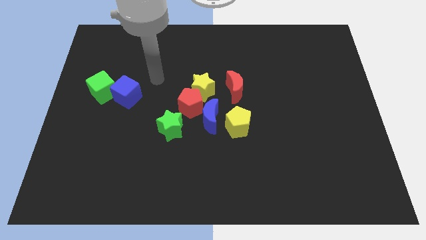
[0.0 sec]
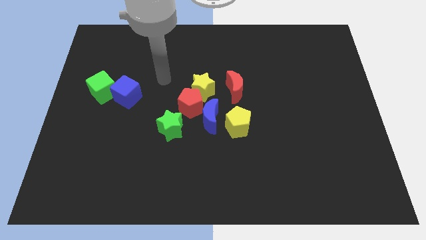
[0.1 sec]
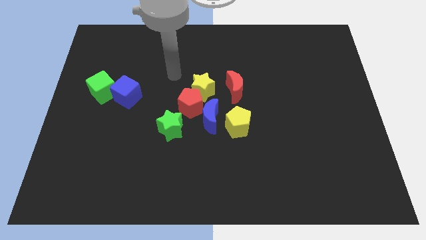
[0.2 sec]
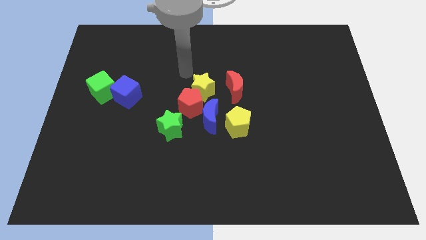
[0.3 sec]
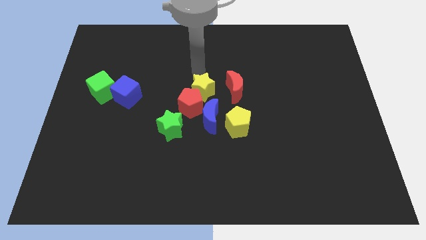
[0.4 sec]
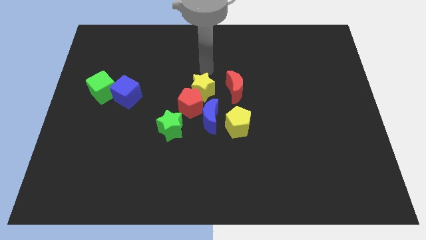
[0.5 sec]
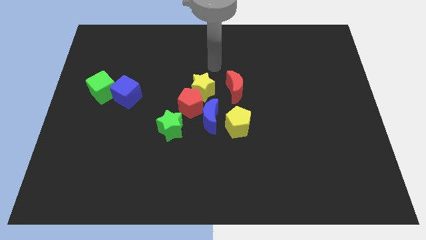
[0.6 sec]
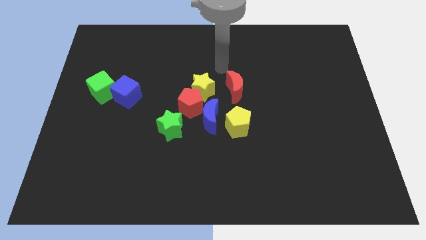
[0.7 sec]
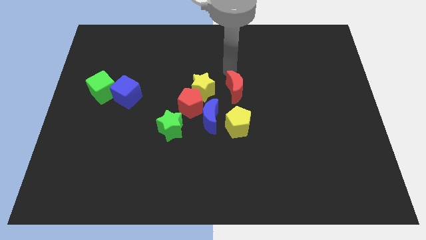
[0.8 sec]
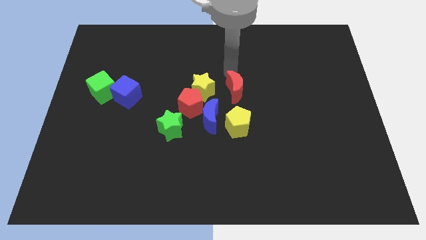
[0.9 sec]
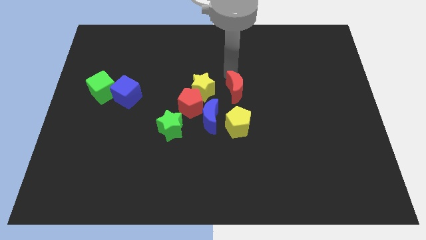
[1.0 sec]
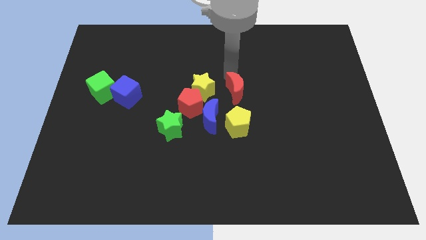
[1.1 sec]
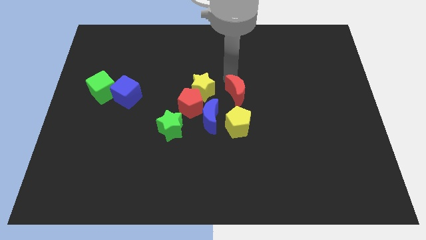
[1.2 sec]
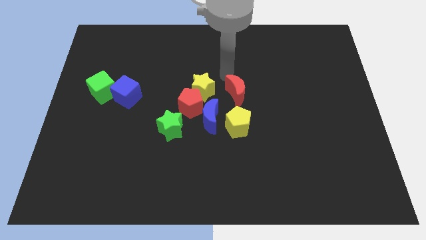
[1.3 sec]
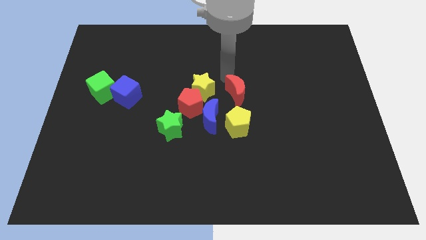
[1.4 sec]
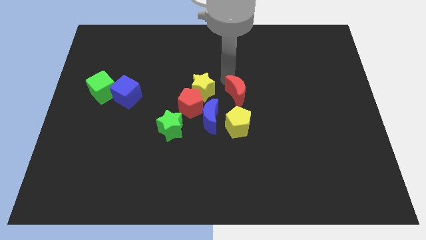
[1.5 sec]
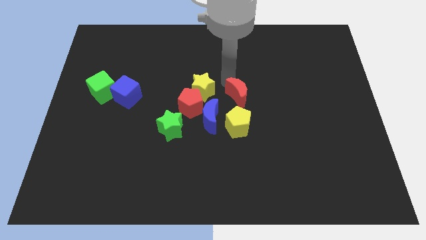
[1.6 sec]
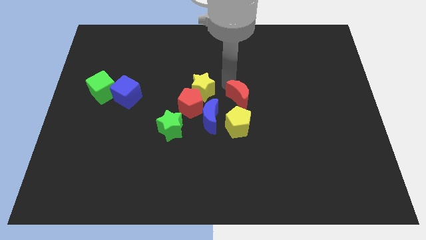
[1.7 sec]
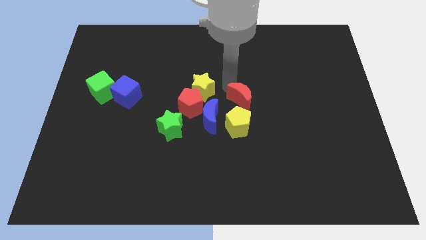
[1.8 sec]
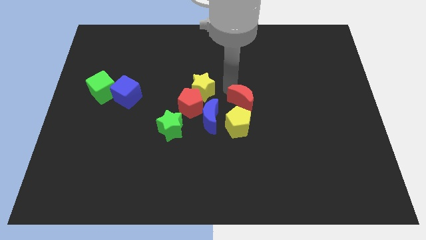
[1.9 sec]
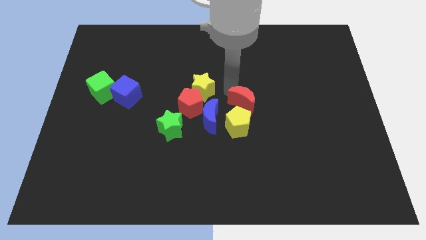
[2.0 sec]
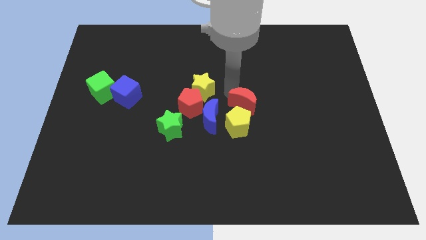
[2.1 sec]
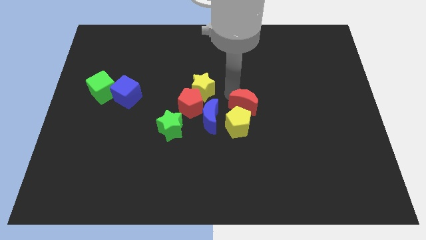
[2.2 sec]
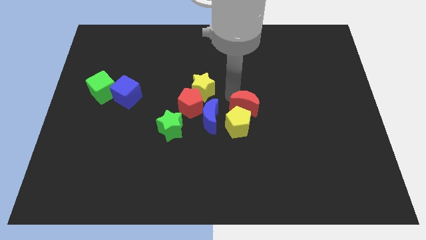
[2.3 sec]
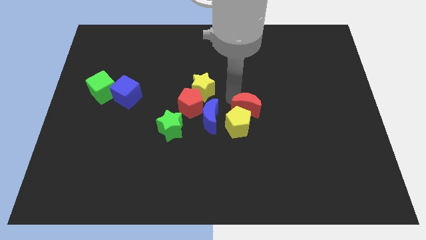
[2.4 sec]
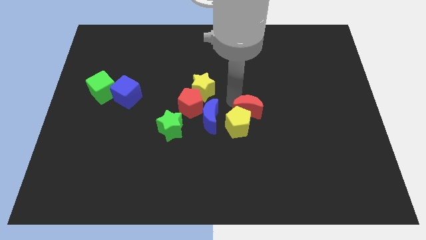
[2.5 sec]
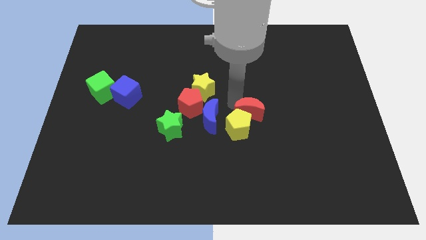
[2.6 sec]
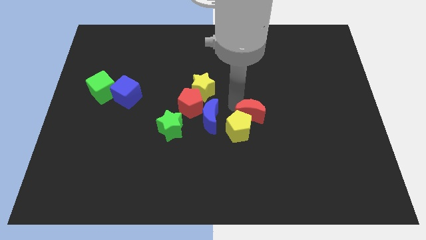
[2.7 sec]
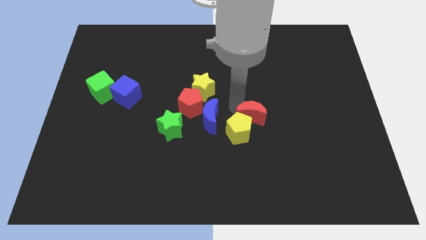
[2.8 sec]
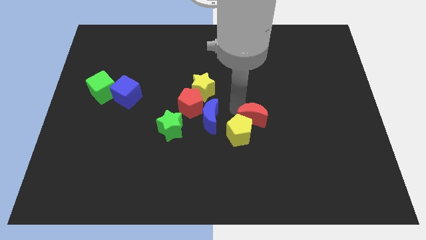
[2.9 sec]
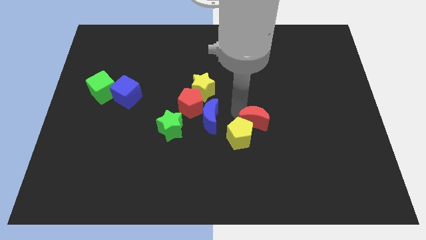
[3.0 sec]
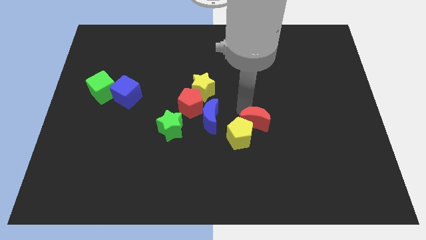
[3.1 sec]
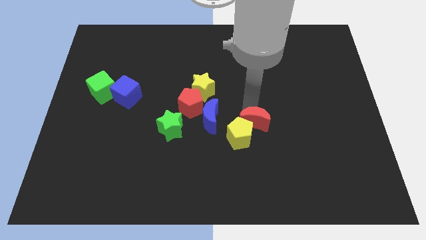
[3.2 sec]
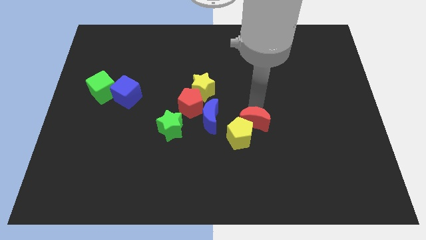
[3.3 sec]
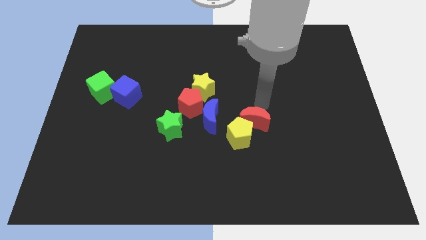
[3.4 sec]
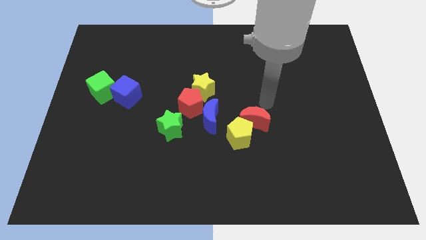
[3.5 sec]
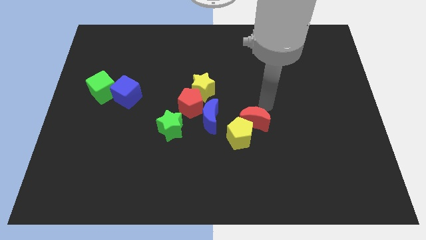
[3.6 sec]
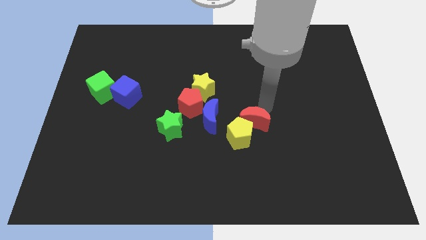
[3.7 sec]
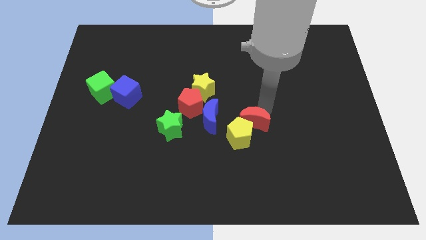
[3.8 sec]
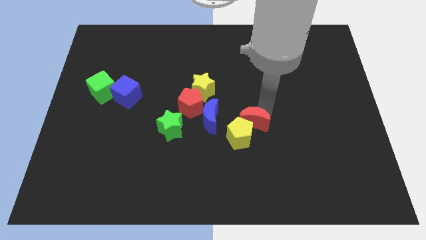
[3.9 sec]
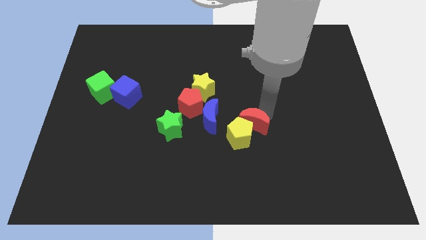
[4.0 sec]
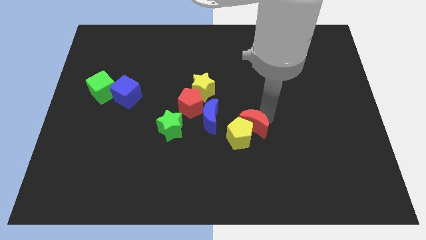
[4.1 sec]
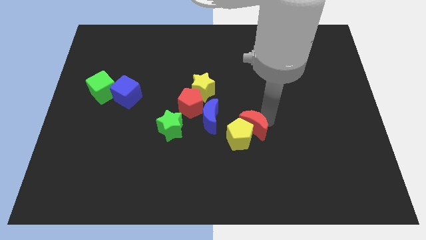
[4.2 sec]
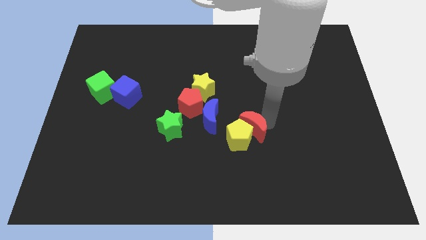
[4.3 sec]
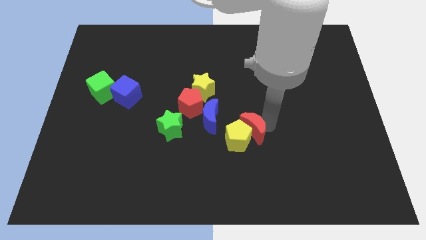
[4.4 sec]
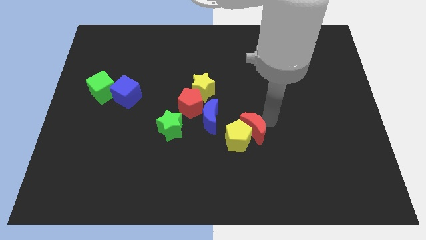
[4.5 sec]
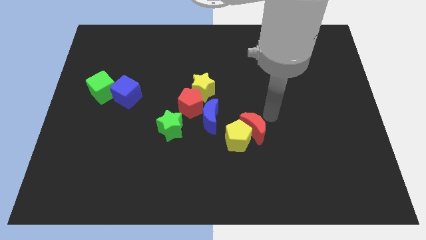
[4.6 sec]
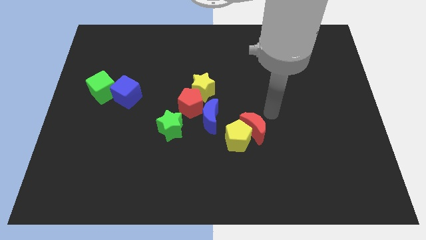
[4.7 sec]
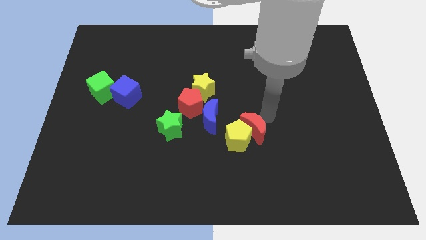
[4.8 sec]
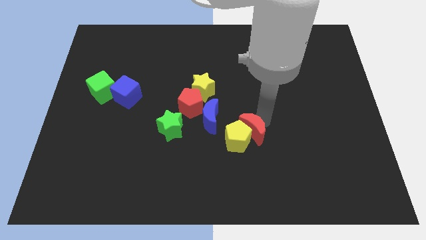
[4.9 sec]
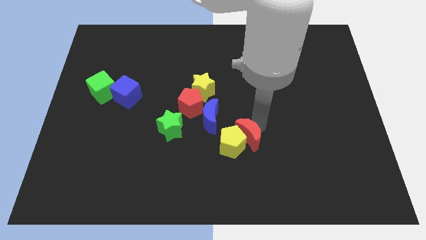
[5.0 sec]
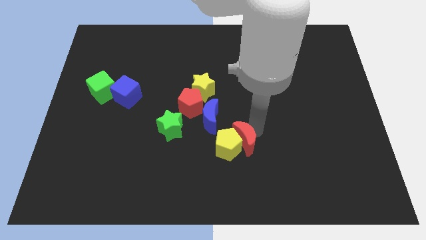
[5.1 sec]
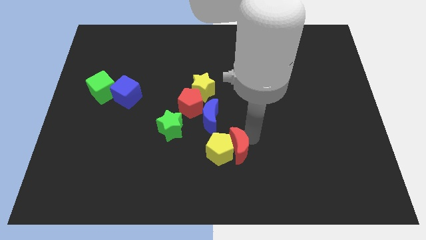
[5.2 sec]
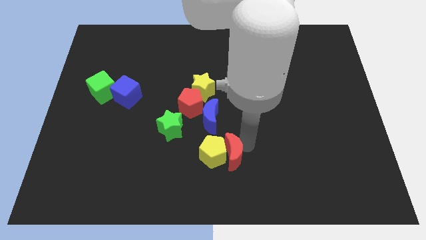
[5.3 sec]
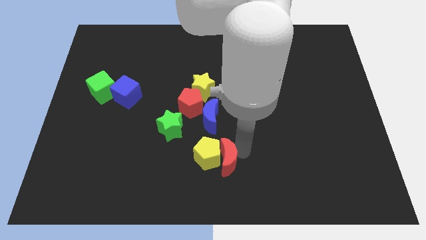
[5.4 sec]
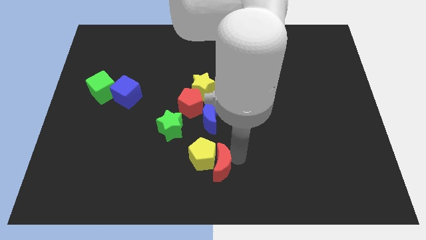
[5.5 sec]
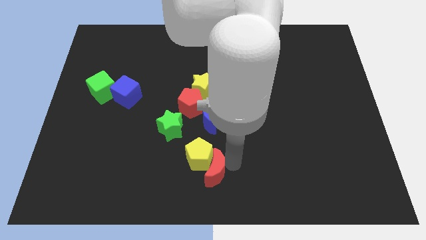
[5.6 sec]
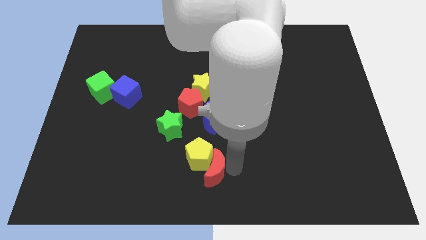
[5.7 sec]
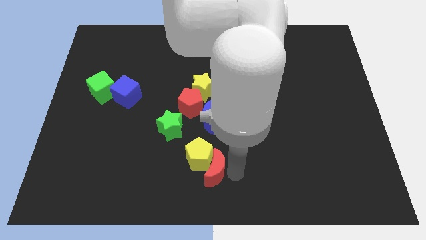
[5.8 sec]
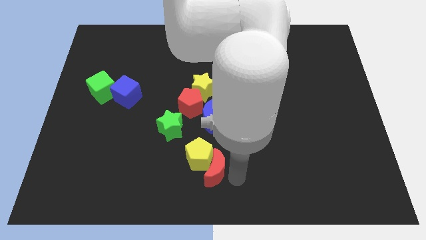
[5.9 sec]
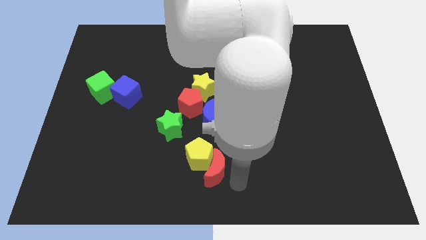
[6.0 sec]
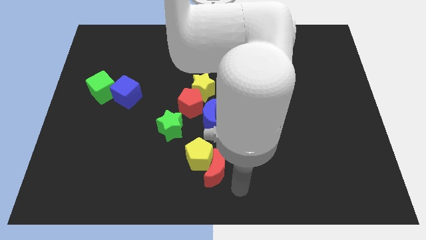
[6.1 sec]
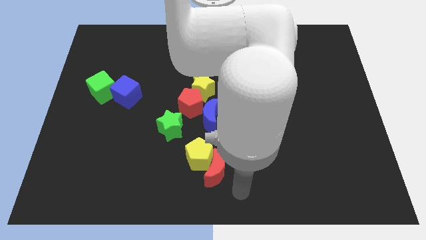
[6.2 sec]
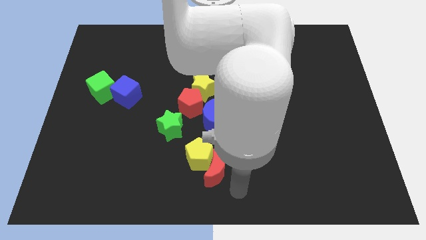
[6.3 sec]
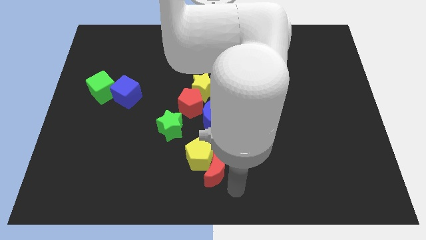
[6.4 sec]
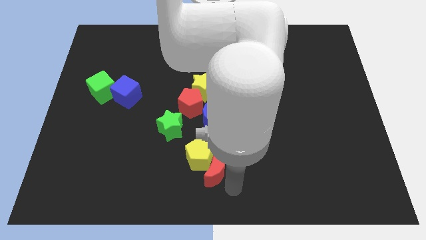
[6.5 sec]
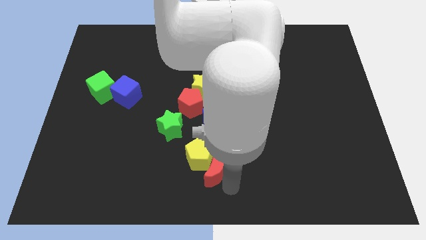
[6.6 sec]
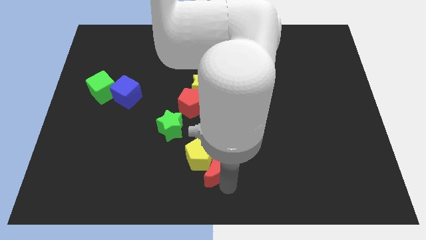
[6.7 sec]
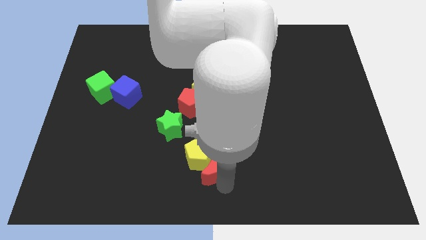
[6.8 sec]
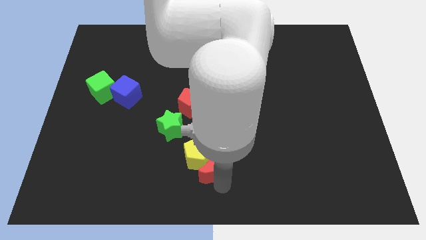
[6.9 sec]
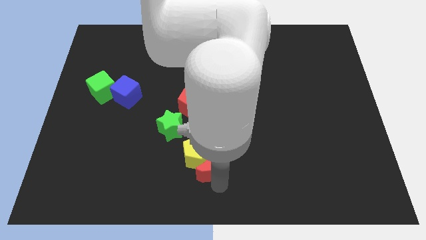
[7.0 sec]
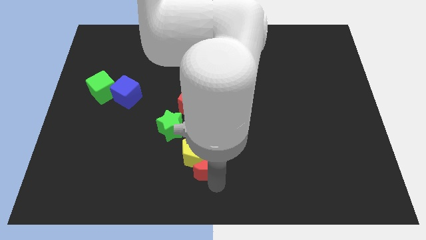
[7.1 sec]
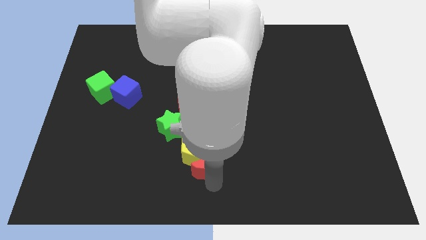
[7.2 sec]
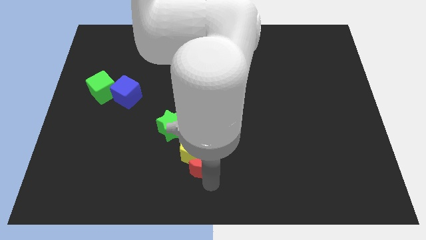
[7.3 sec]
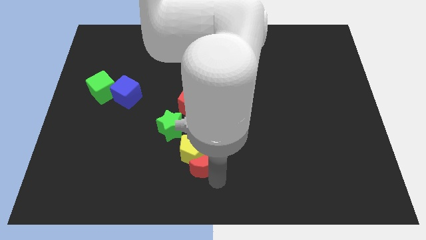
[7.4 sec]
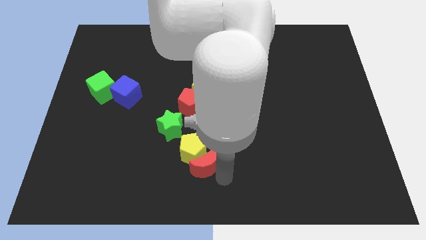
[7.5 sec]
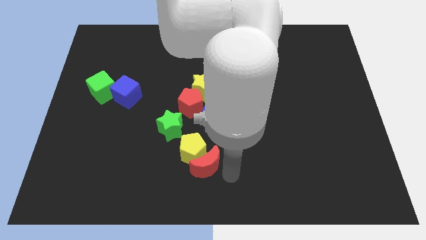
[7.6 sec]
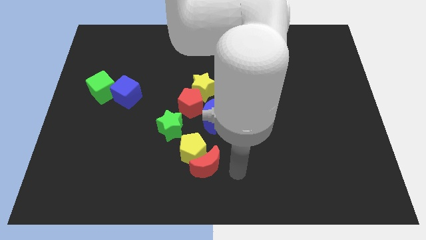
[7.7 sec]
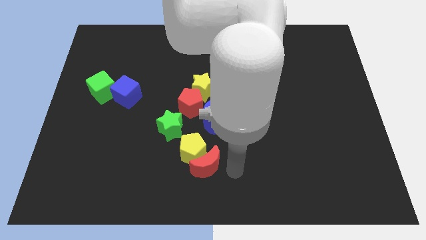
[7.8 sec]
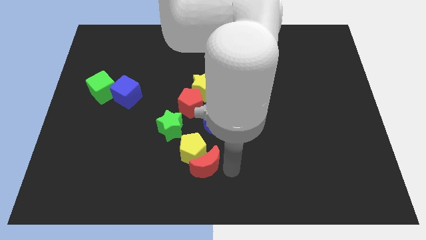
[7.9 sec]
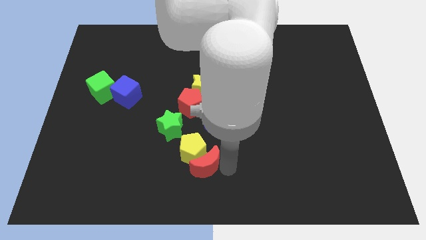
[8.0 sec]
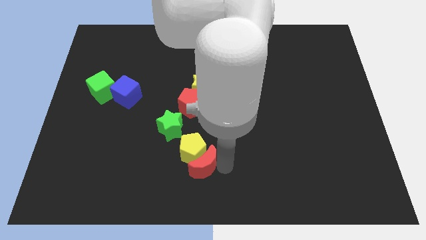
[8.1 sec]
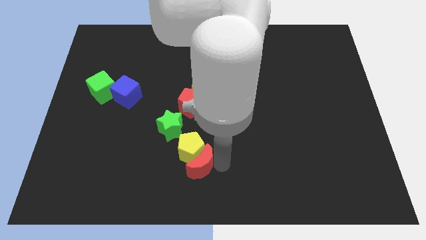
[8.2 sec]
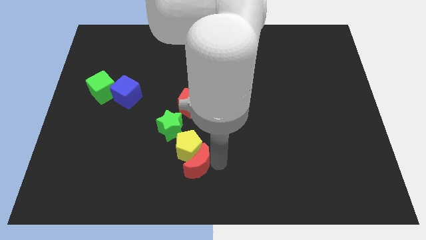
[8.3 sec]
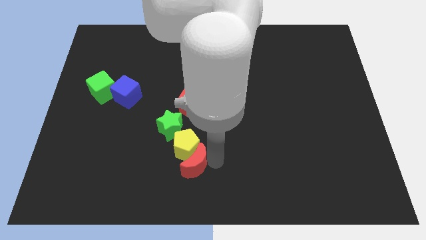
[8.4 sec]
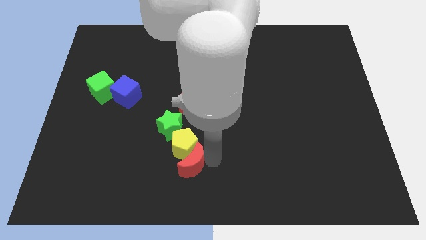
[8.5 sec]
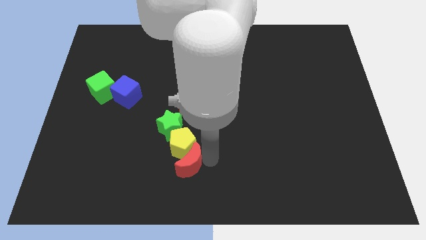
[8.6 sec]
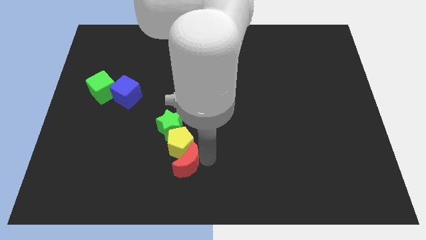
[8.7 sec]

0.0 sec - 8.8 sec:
move the red moon down and left diagonally
